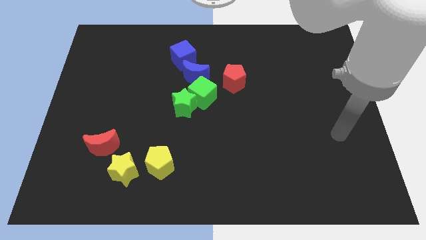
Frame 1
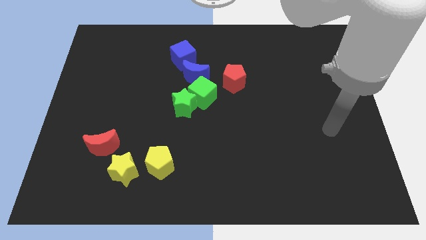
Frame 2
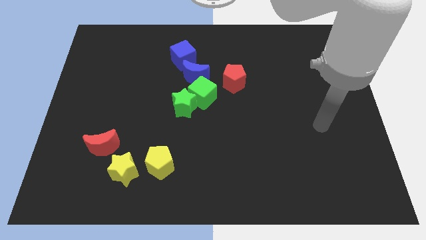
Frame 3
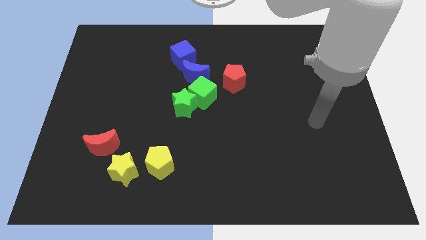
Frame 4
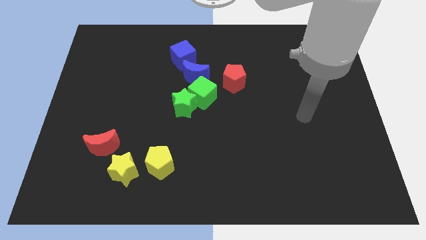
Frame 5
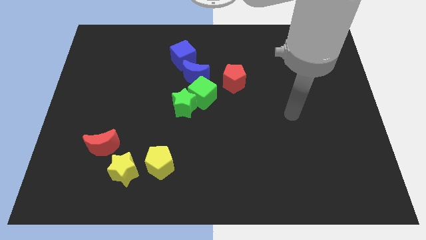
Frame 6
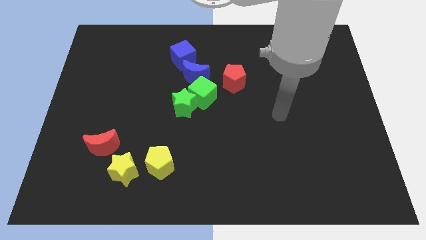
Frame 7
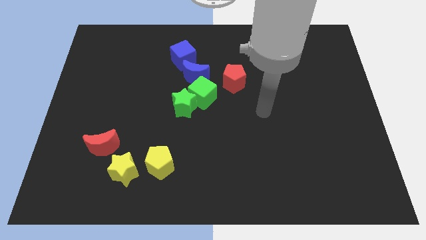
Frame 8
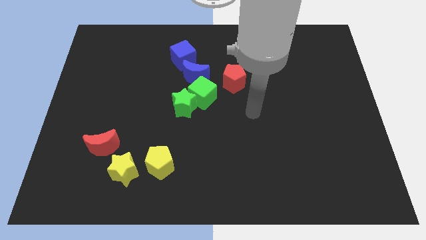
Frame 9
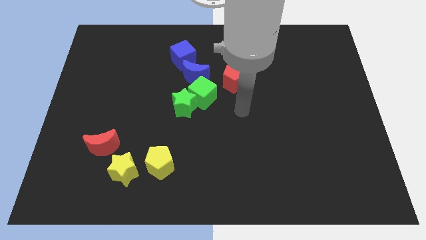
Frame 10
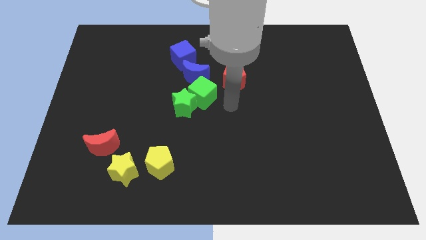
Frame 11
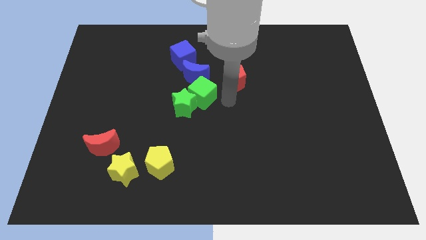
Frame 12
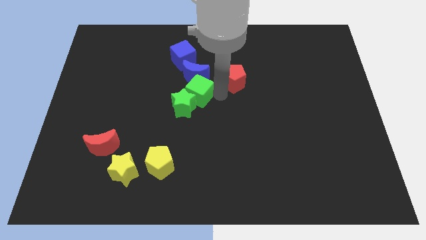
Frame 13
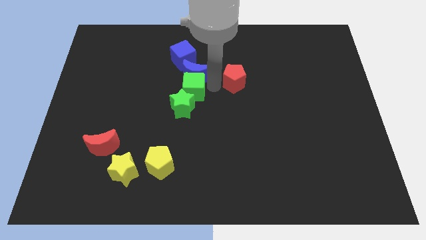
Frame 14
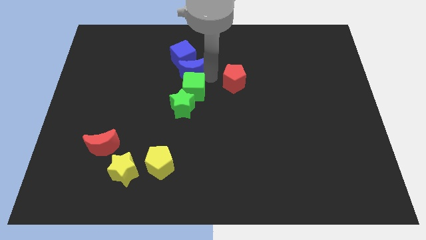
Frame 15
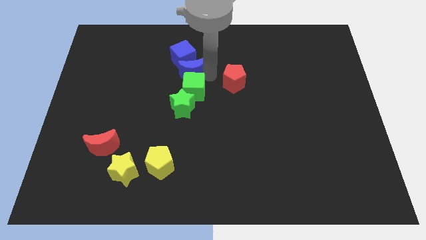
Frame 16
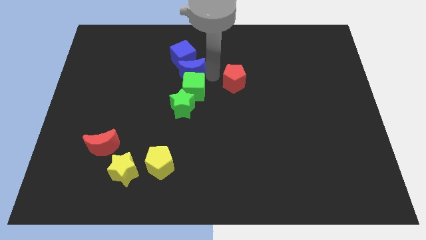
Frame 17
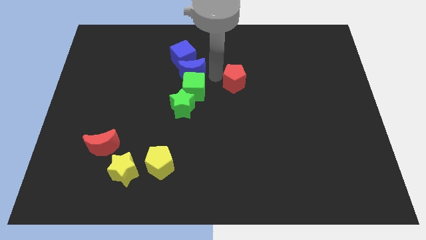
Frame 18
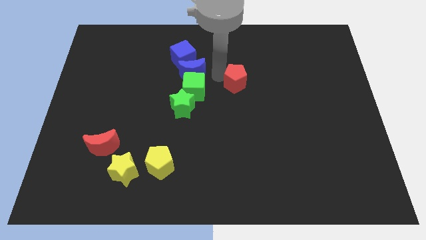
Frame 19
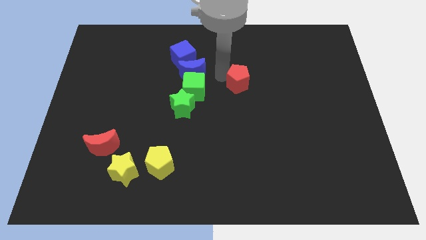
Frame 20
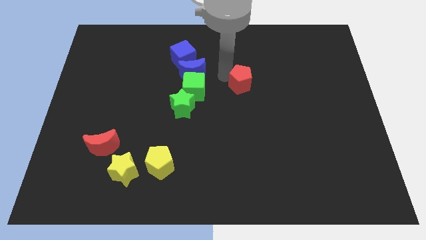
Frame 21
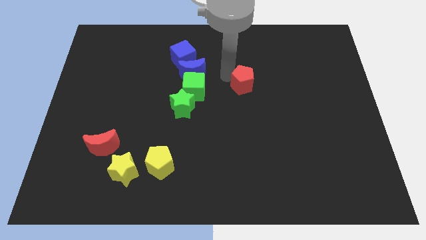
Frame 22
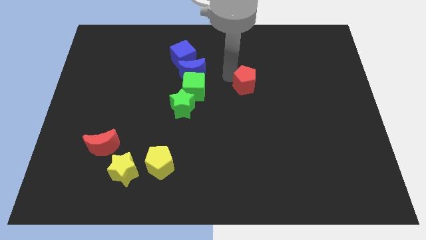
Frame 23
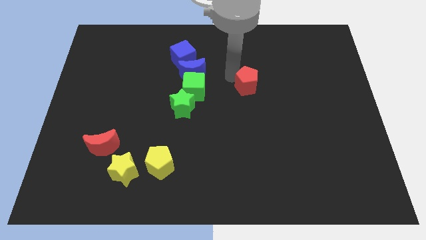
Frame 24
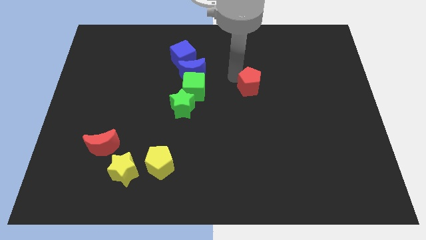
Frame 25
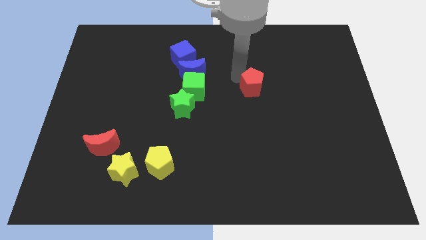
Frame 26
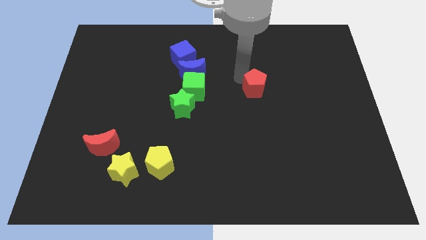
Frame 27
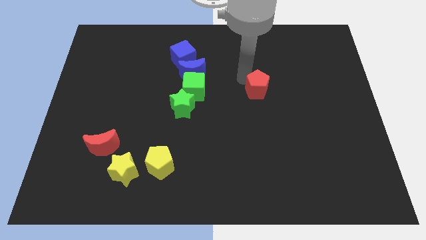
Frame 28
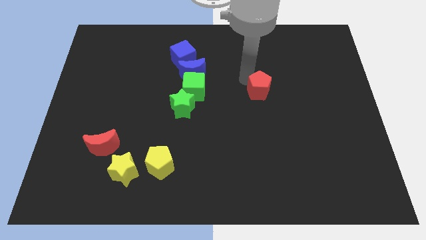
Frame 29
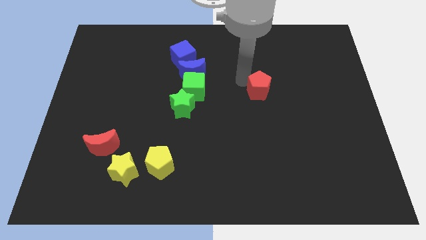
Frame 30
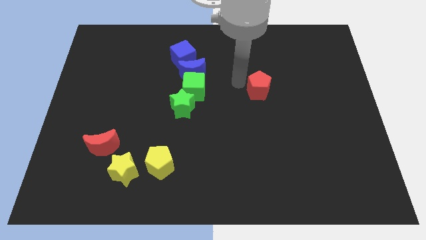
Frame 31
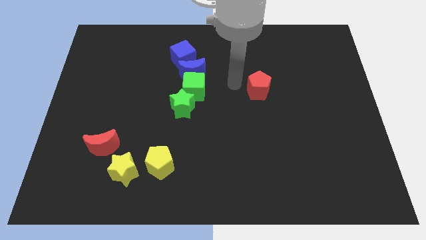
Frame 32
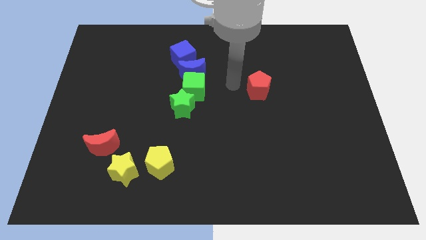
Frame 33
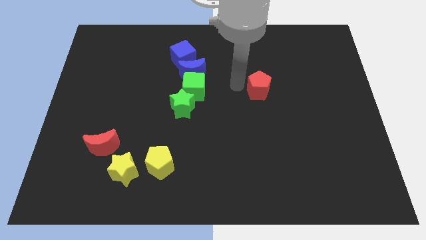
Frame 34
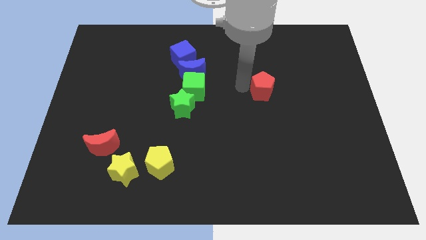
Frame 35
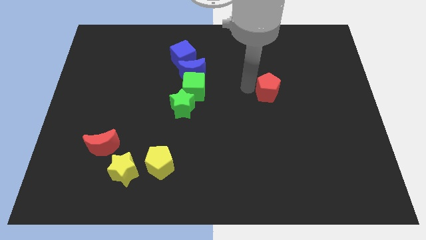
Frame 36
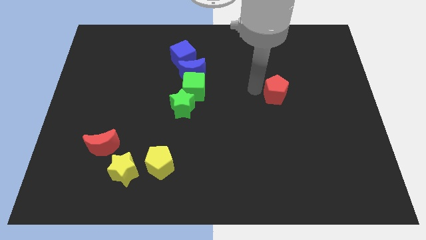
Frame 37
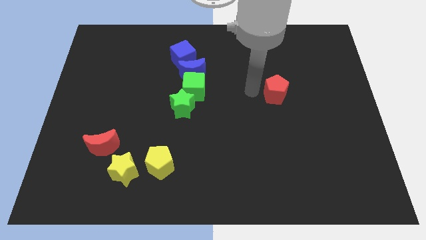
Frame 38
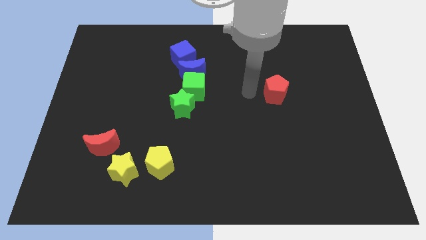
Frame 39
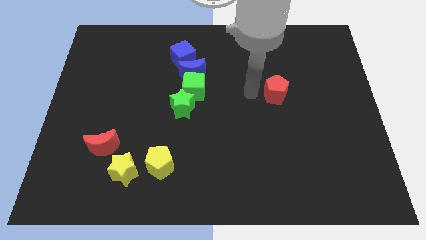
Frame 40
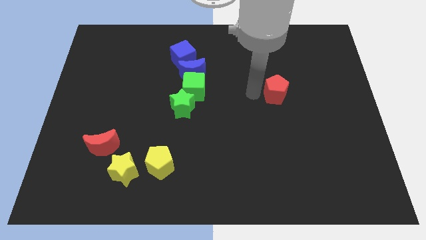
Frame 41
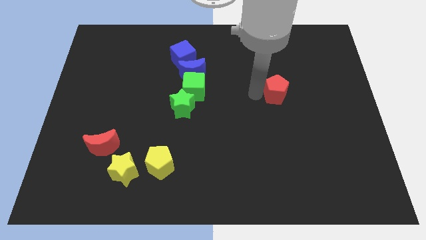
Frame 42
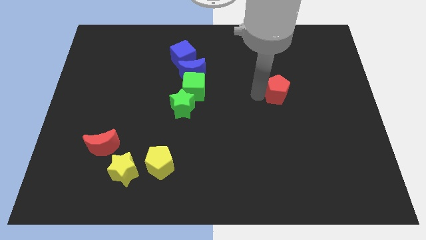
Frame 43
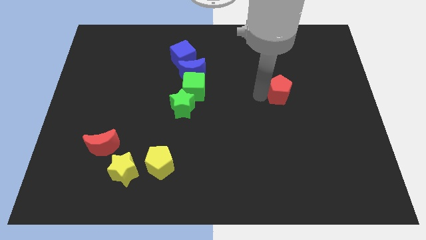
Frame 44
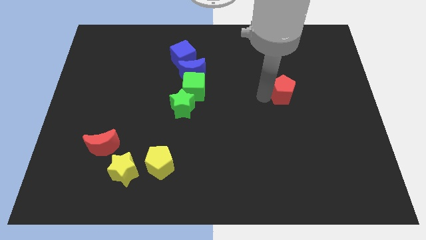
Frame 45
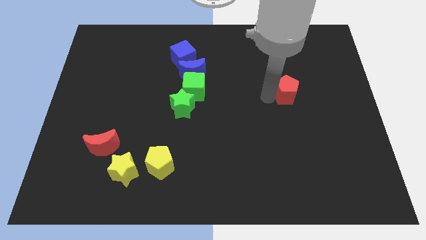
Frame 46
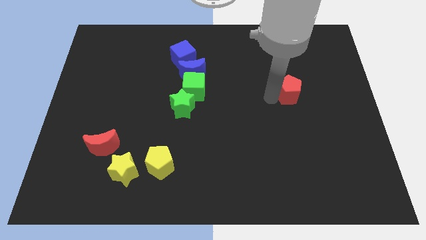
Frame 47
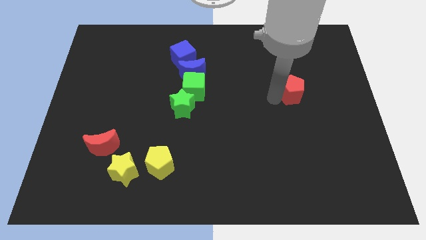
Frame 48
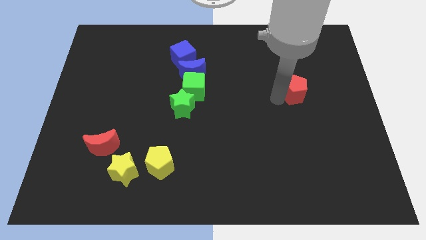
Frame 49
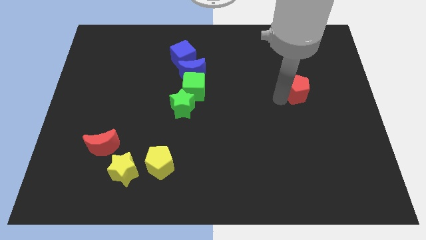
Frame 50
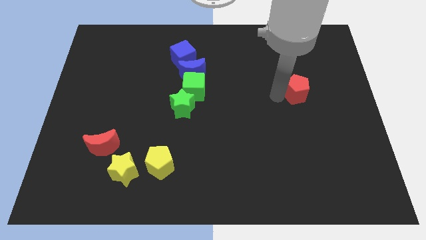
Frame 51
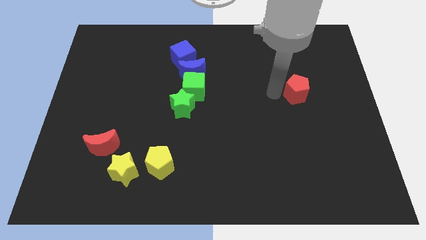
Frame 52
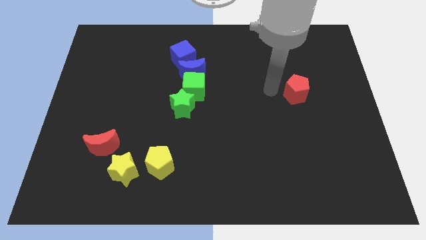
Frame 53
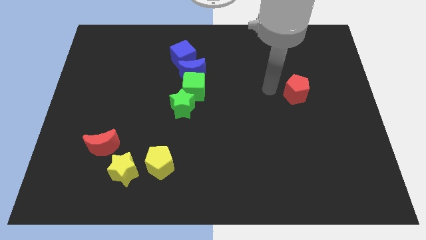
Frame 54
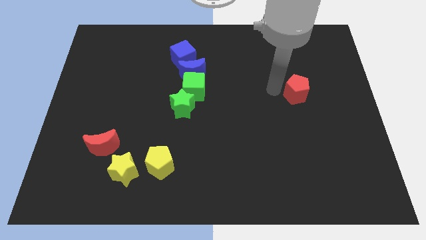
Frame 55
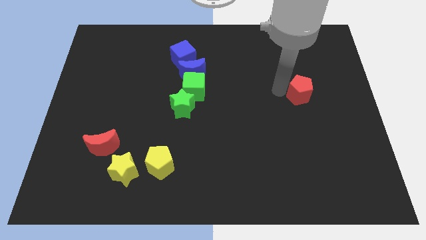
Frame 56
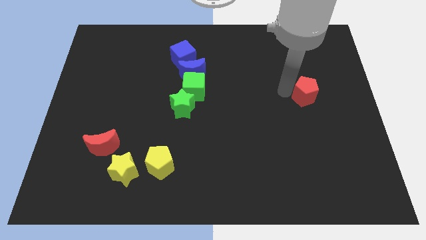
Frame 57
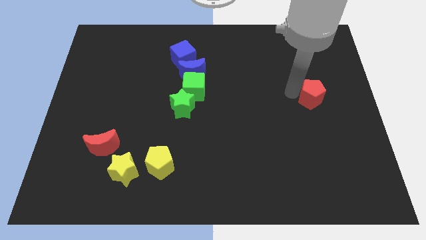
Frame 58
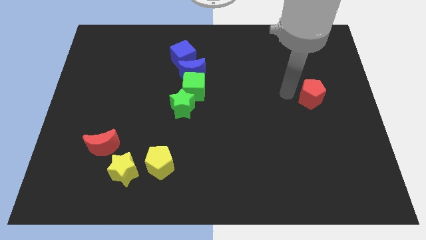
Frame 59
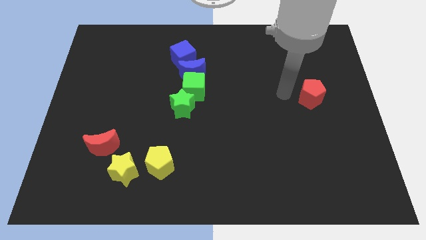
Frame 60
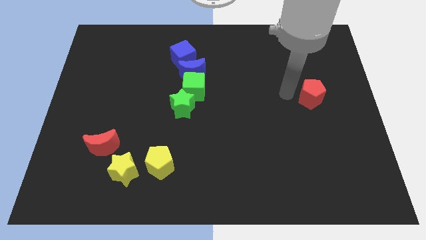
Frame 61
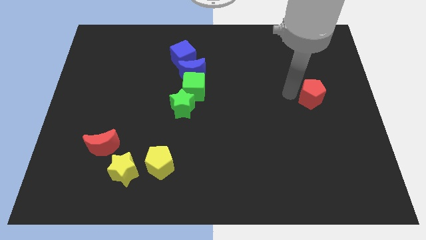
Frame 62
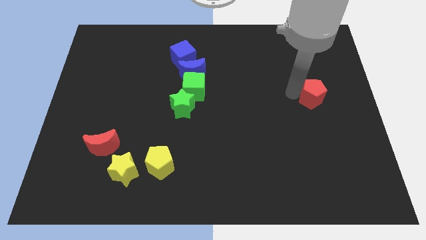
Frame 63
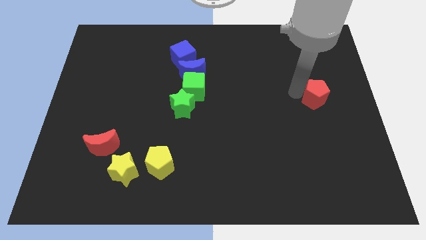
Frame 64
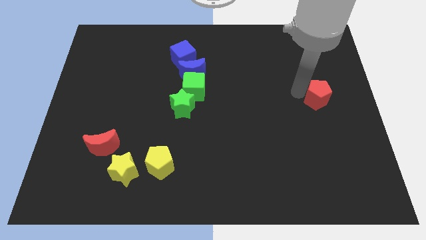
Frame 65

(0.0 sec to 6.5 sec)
move the red pentagon to the right side

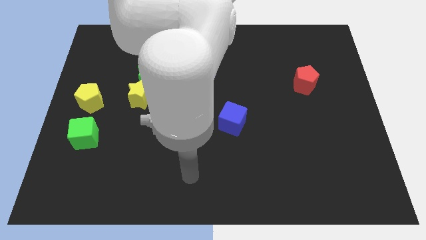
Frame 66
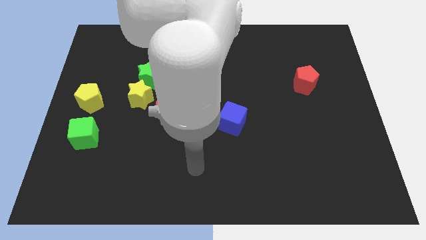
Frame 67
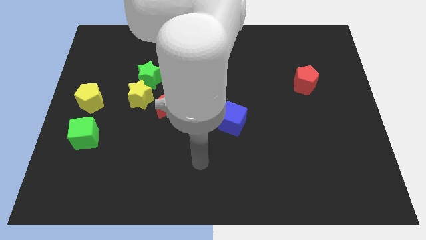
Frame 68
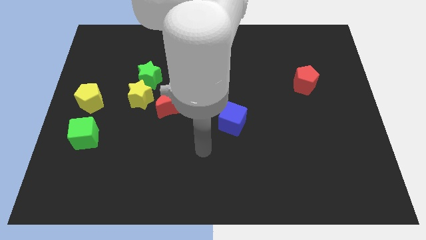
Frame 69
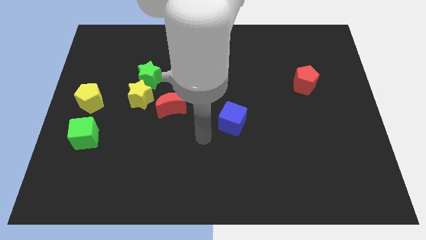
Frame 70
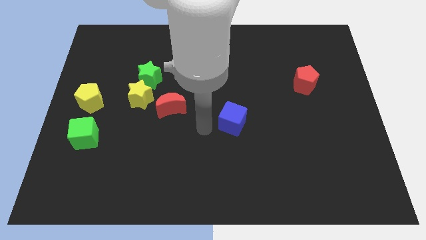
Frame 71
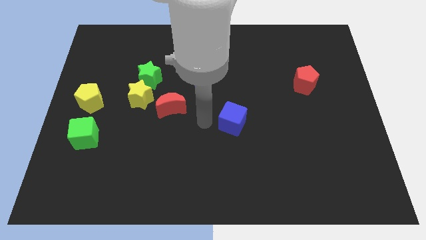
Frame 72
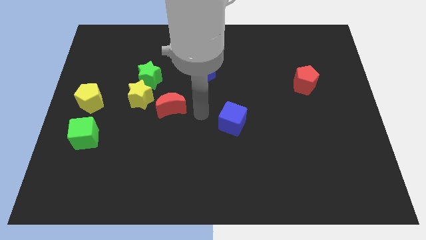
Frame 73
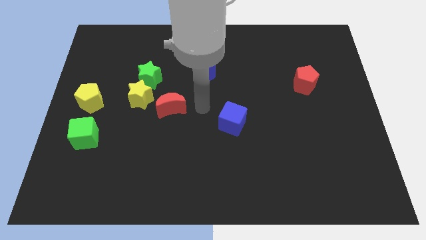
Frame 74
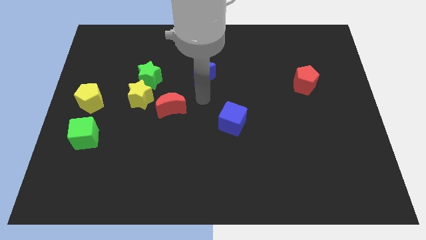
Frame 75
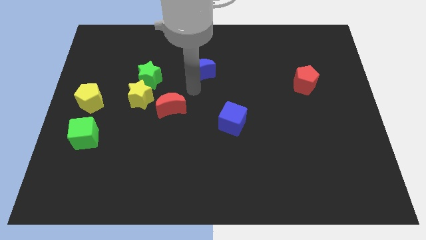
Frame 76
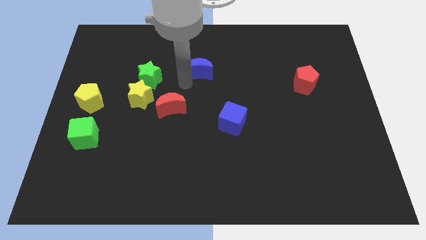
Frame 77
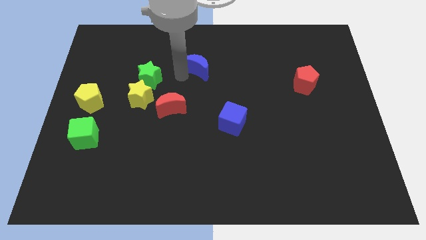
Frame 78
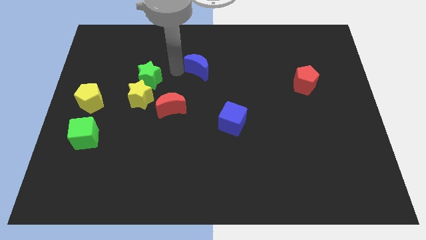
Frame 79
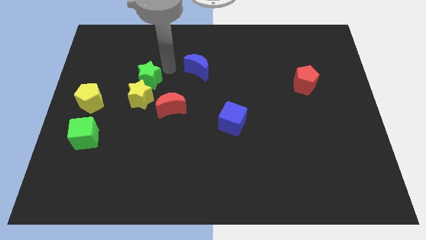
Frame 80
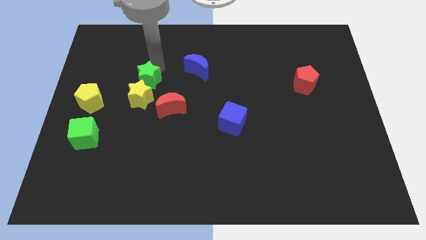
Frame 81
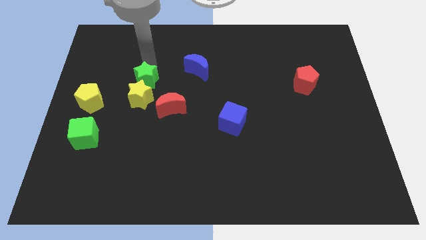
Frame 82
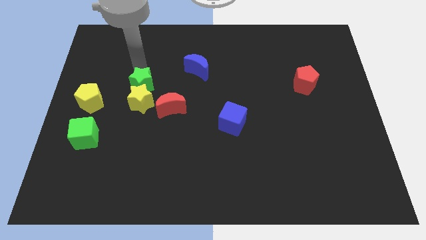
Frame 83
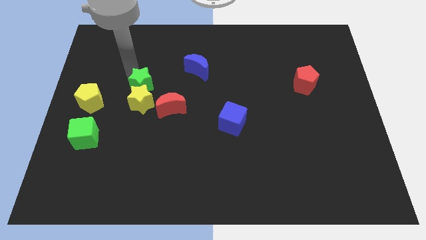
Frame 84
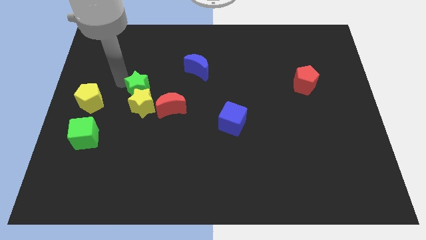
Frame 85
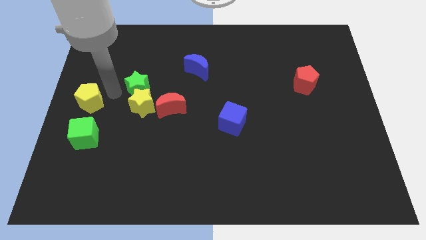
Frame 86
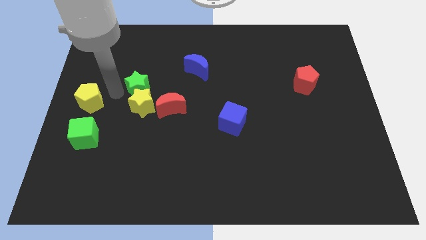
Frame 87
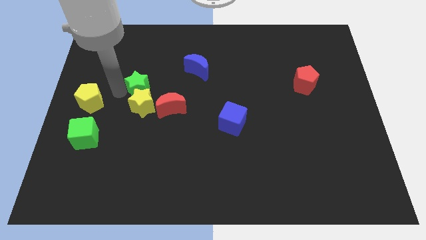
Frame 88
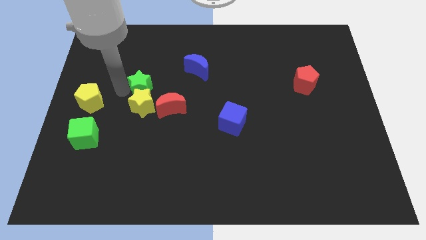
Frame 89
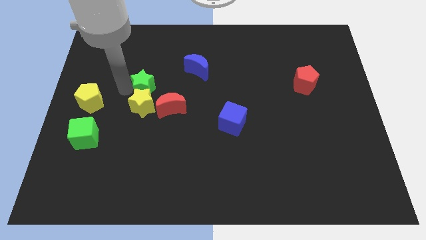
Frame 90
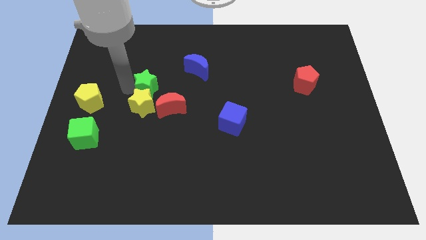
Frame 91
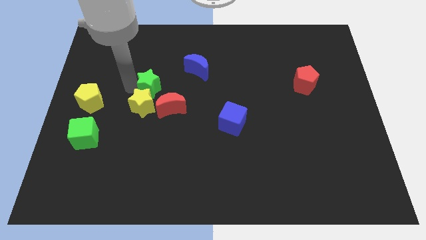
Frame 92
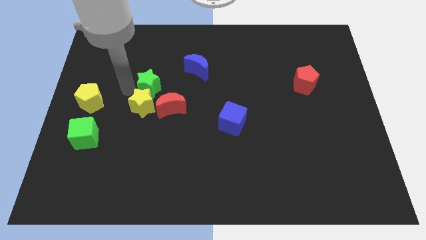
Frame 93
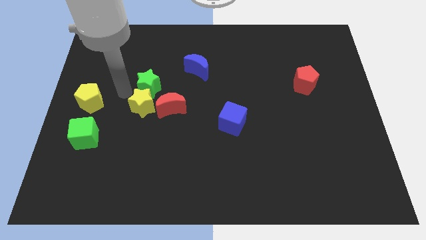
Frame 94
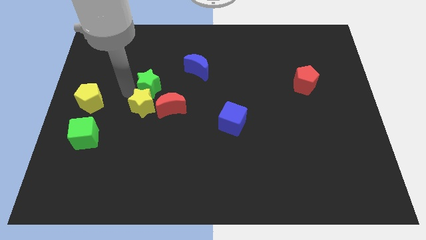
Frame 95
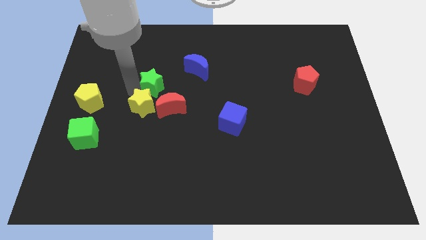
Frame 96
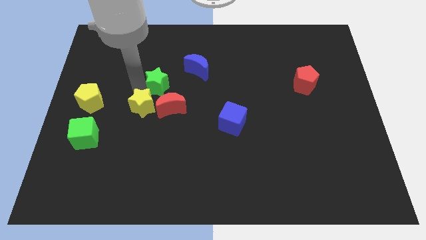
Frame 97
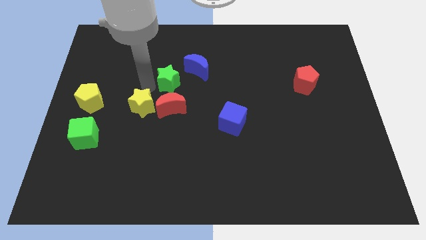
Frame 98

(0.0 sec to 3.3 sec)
push the green star to the center
